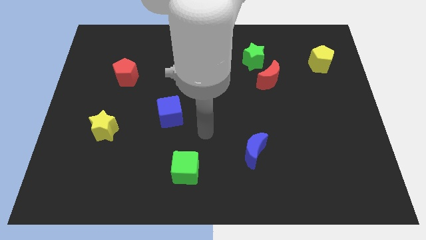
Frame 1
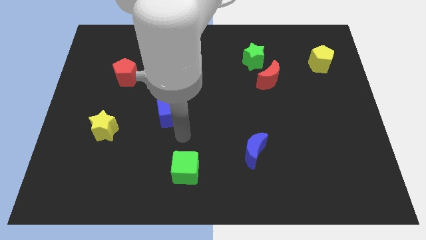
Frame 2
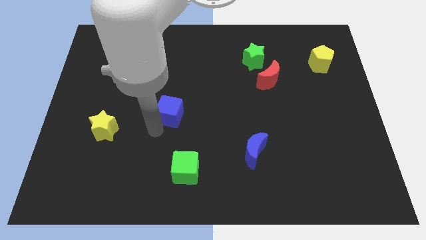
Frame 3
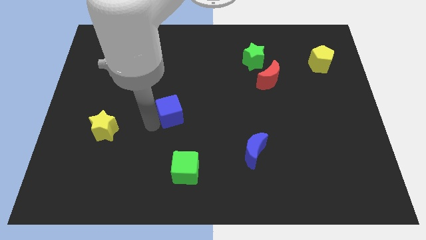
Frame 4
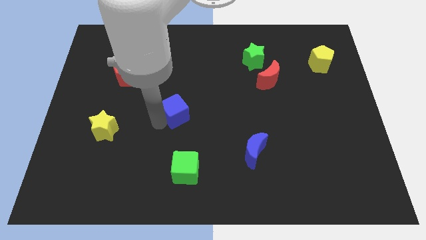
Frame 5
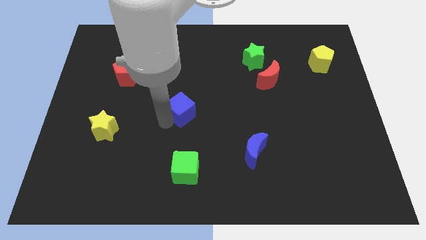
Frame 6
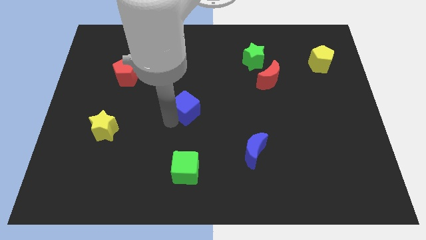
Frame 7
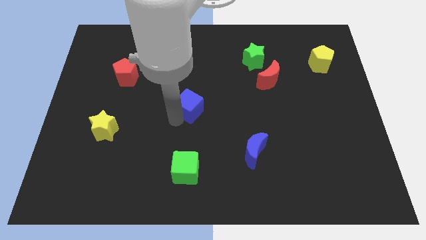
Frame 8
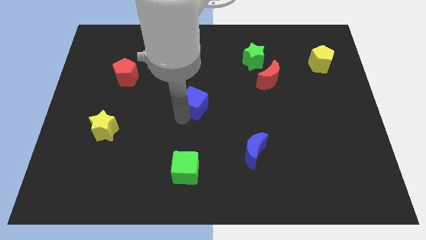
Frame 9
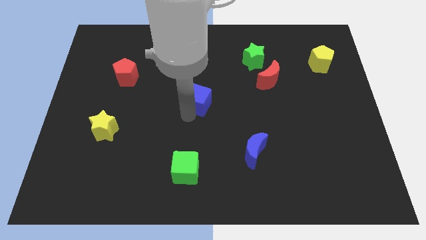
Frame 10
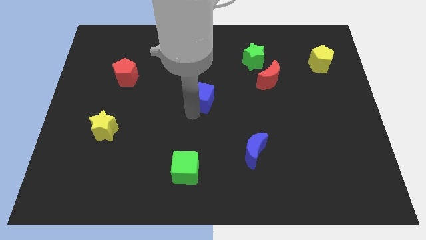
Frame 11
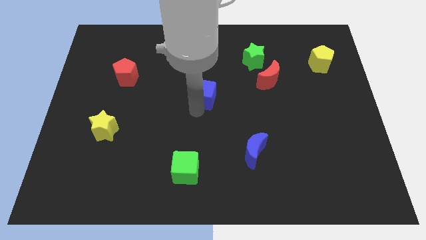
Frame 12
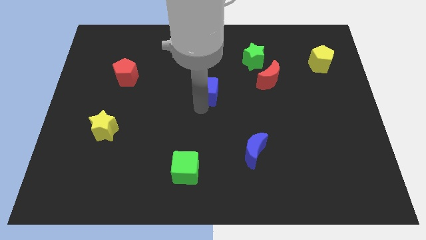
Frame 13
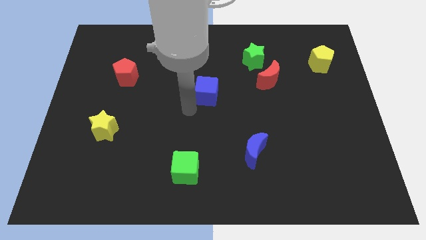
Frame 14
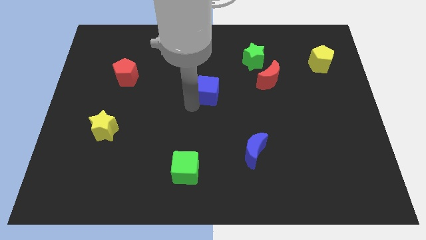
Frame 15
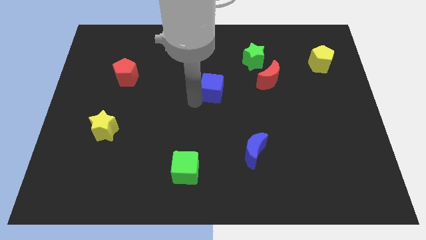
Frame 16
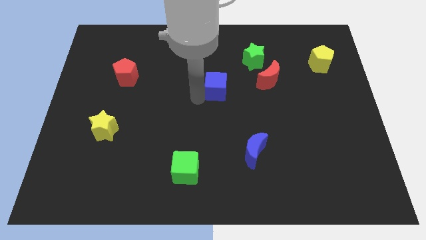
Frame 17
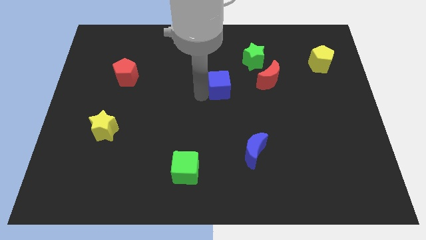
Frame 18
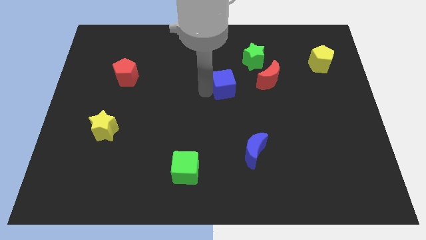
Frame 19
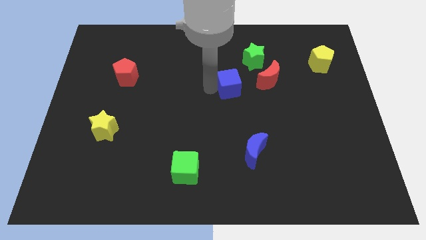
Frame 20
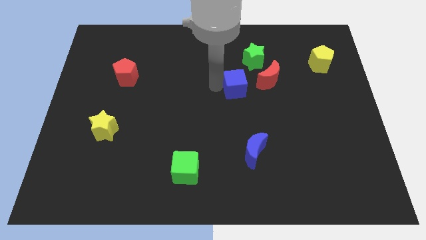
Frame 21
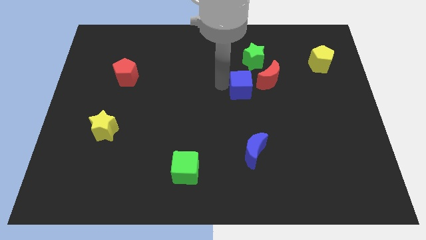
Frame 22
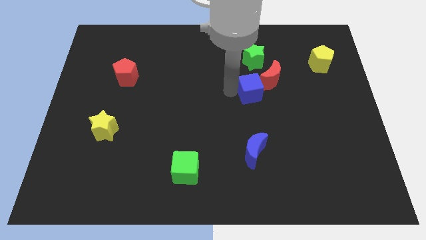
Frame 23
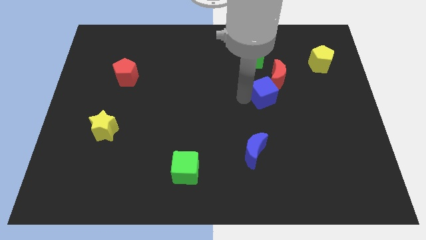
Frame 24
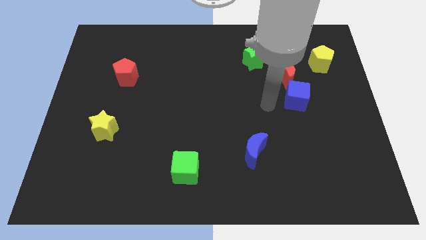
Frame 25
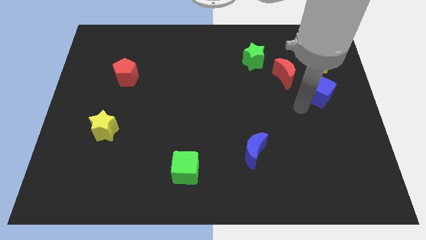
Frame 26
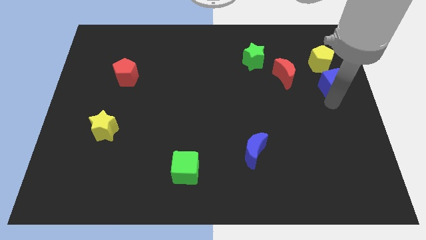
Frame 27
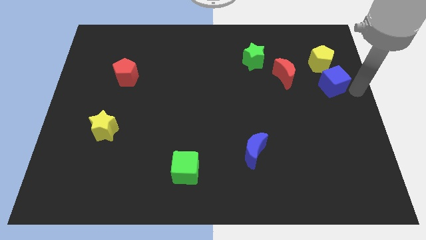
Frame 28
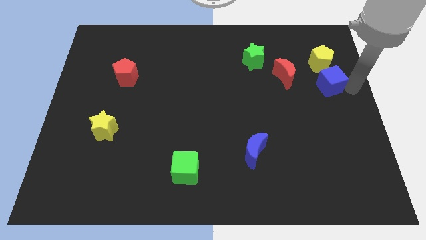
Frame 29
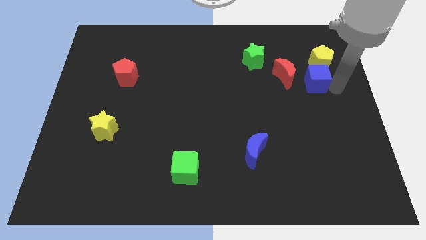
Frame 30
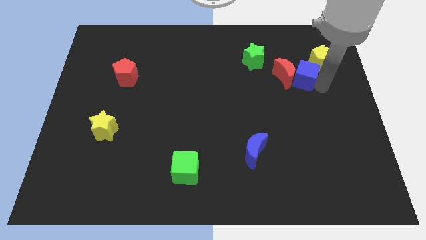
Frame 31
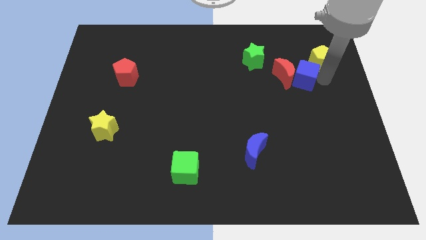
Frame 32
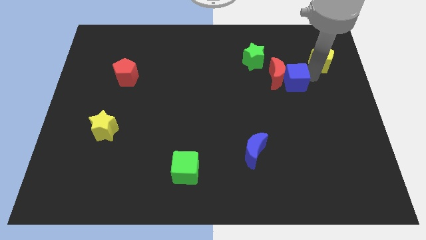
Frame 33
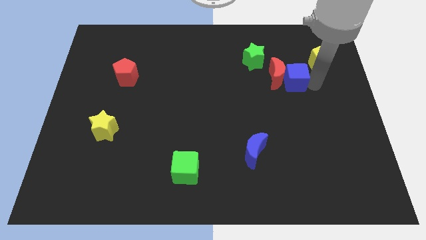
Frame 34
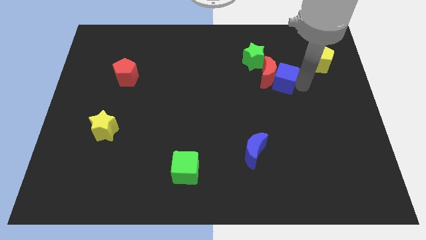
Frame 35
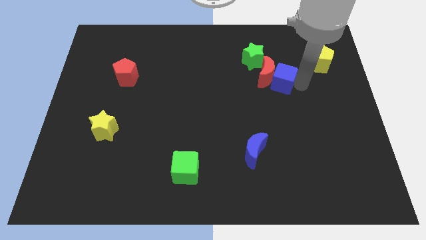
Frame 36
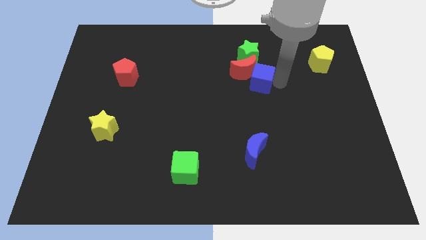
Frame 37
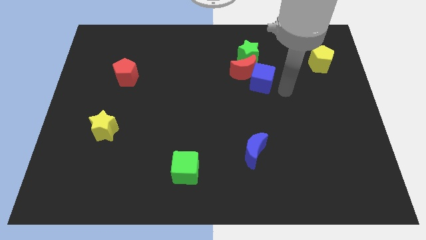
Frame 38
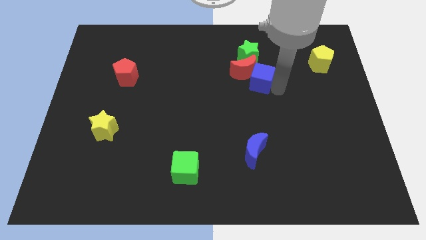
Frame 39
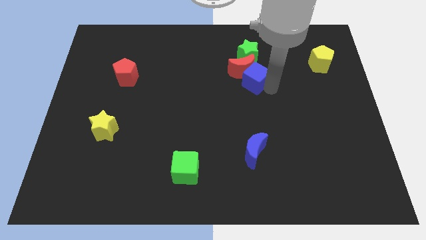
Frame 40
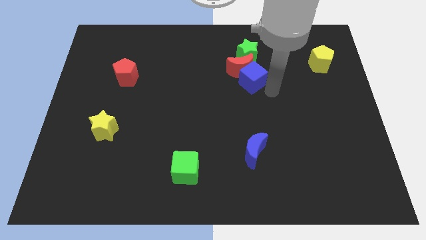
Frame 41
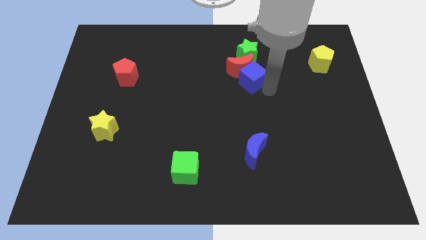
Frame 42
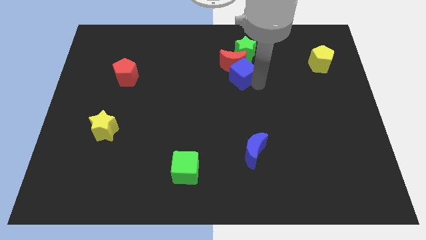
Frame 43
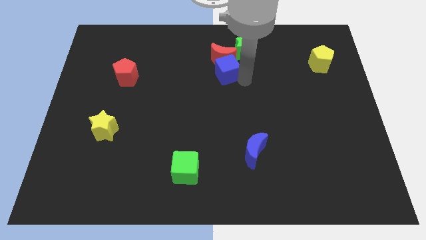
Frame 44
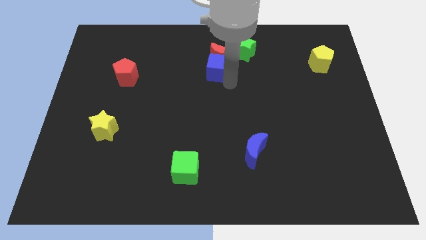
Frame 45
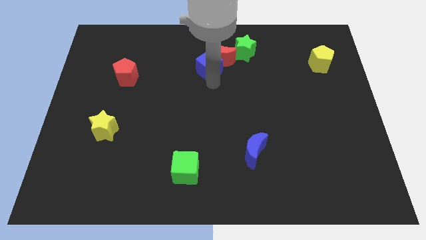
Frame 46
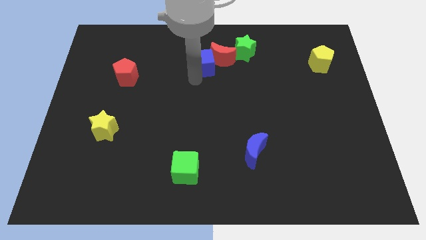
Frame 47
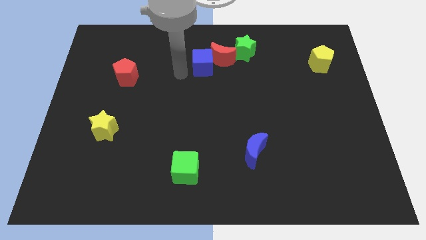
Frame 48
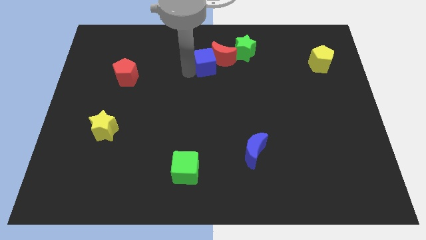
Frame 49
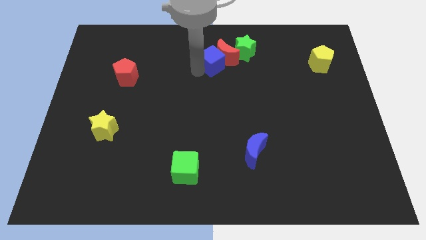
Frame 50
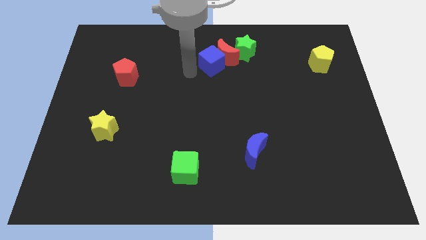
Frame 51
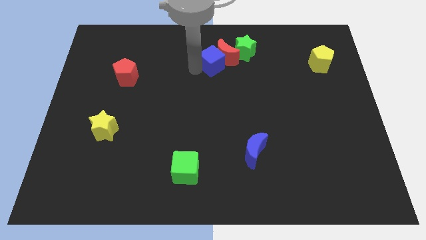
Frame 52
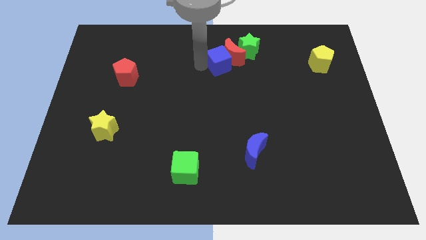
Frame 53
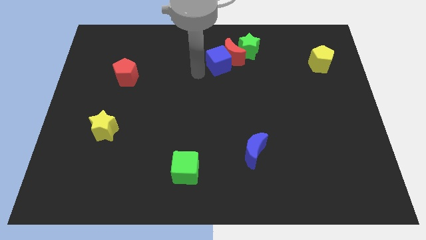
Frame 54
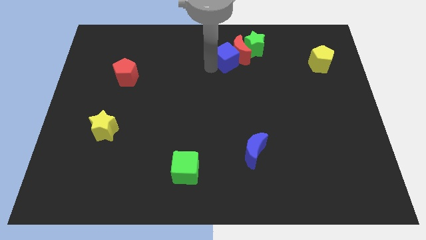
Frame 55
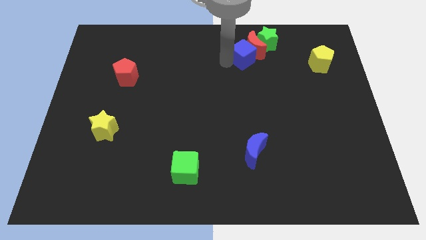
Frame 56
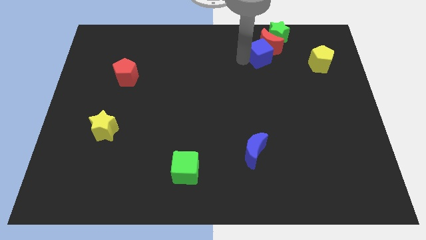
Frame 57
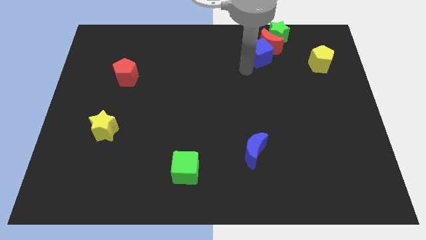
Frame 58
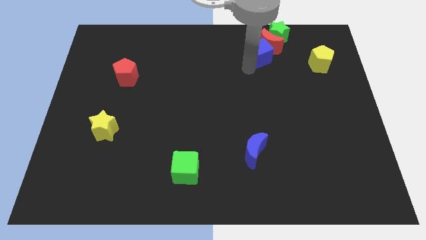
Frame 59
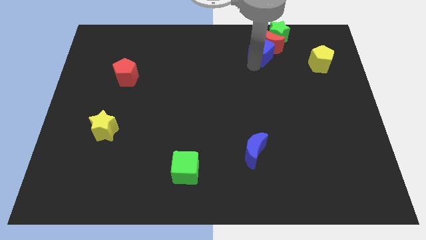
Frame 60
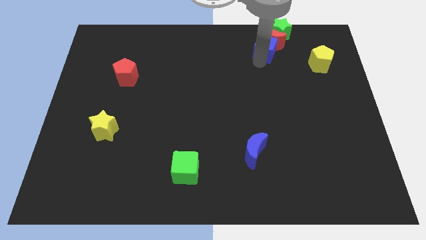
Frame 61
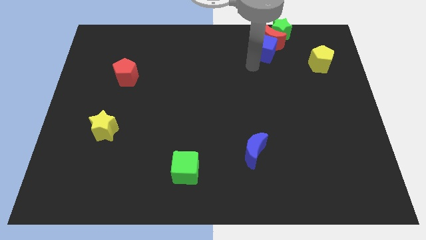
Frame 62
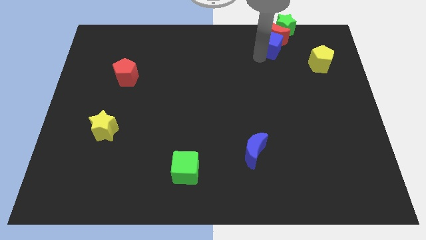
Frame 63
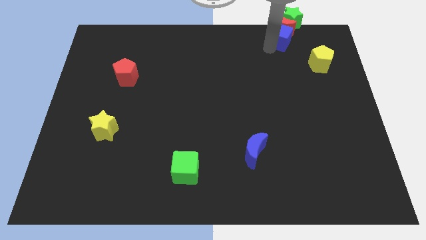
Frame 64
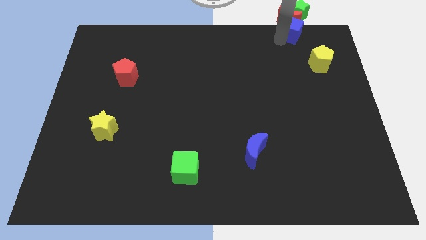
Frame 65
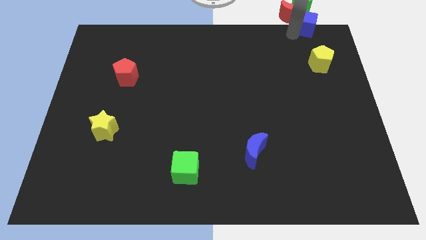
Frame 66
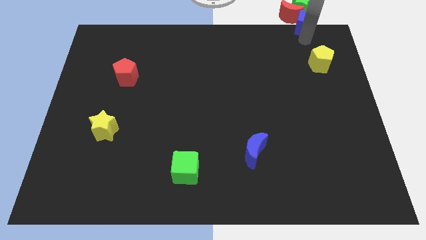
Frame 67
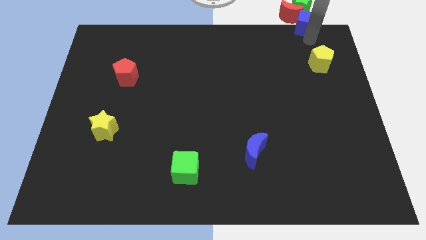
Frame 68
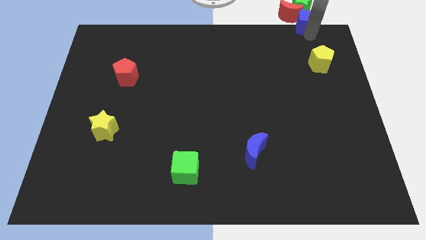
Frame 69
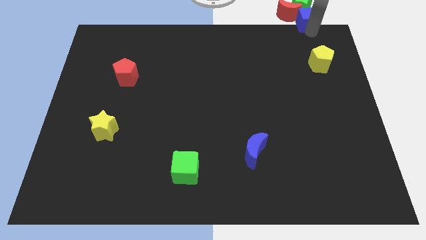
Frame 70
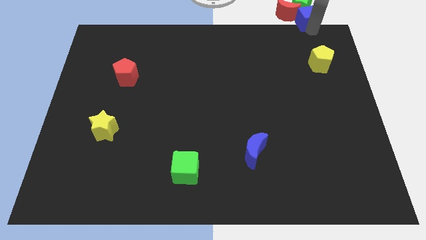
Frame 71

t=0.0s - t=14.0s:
put the blue cube towards the green star
